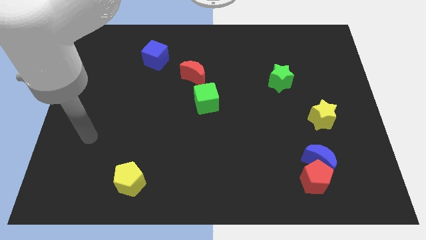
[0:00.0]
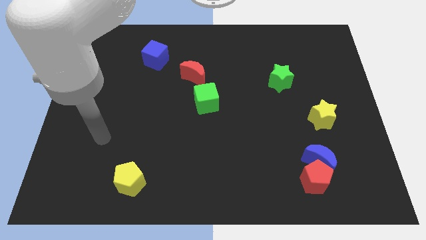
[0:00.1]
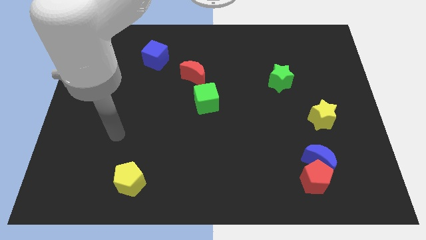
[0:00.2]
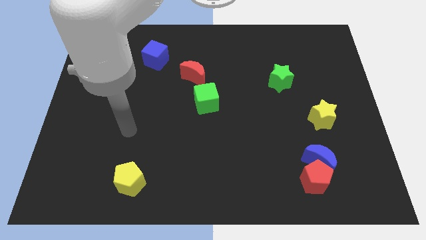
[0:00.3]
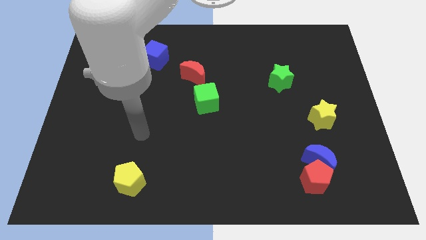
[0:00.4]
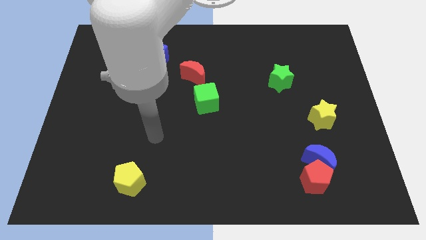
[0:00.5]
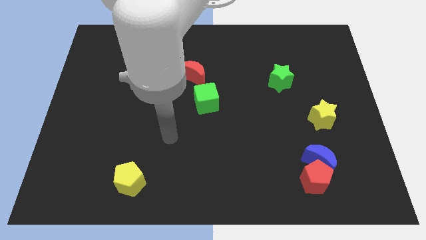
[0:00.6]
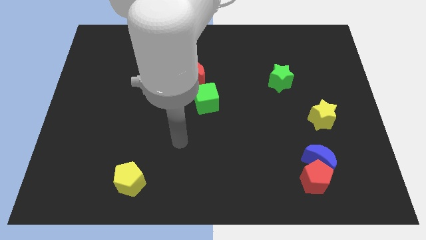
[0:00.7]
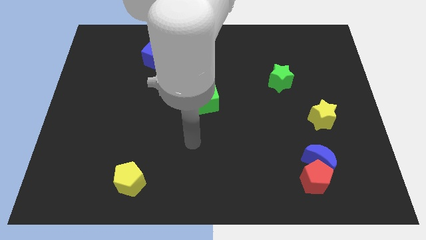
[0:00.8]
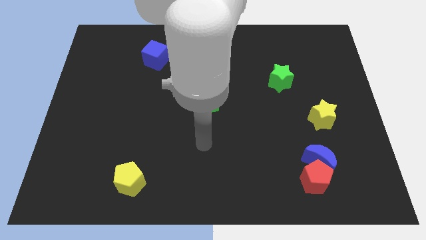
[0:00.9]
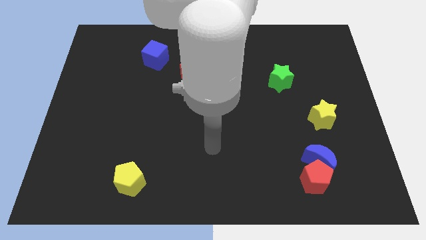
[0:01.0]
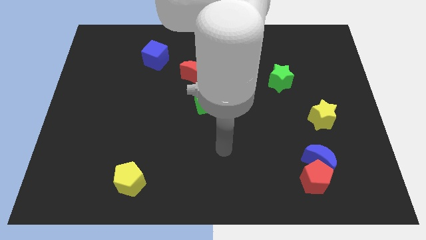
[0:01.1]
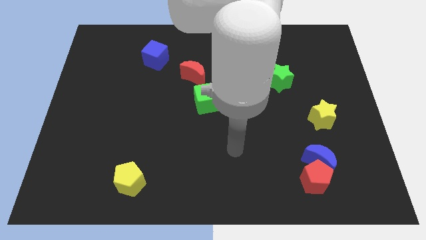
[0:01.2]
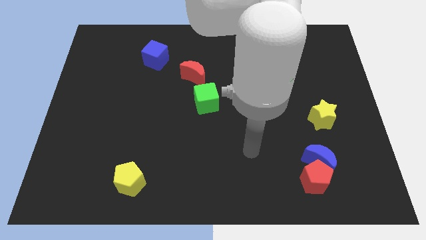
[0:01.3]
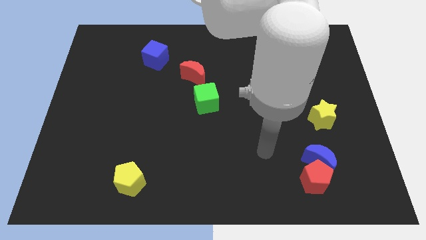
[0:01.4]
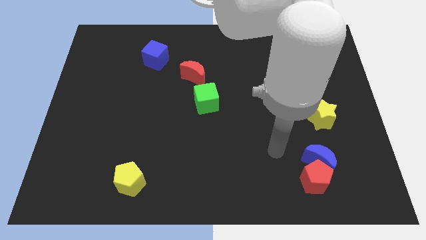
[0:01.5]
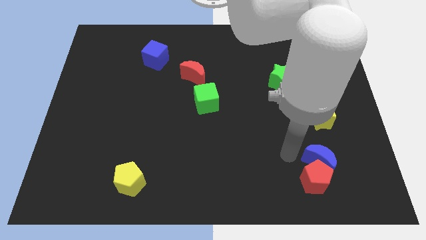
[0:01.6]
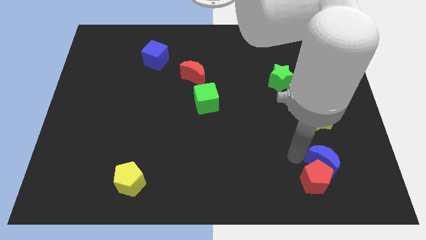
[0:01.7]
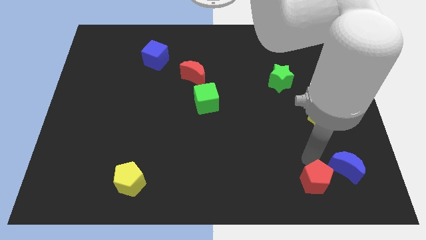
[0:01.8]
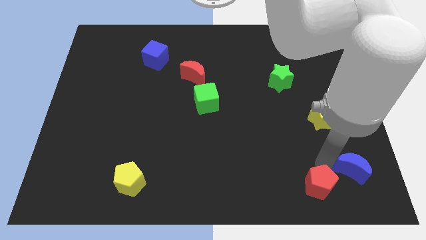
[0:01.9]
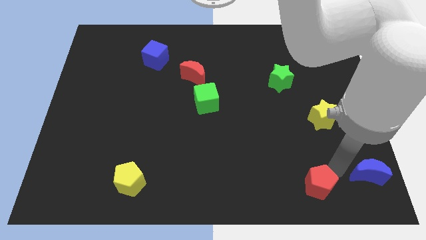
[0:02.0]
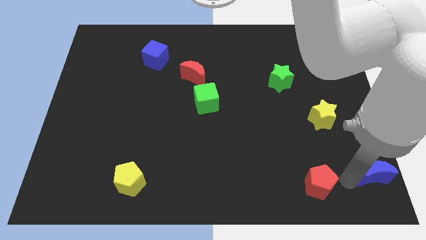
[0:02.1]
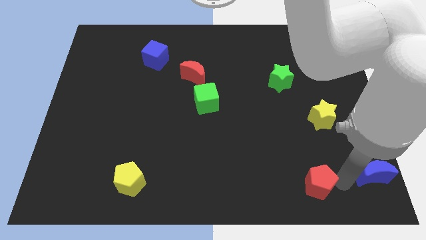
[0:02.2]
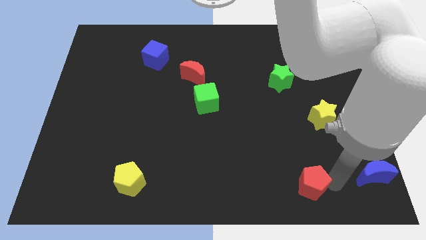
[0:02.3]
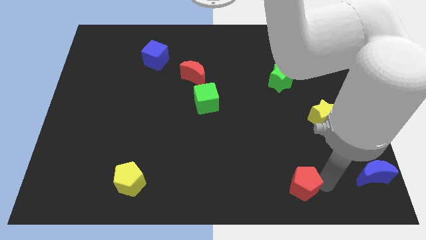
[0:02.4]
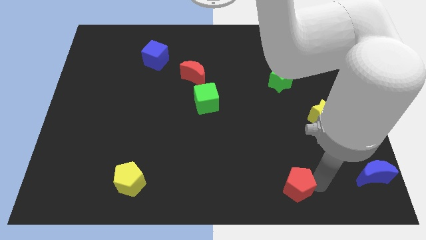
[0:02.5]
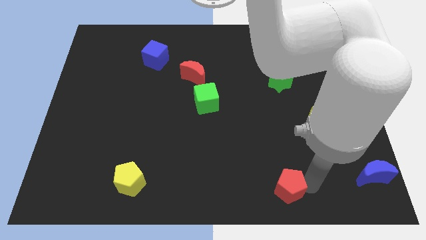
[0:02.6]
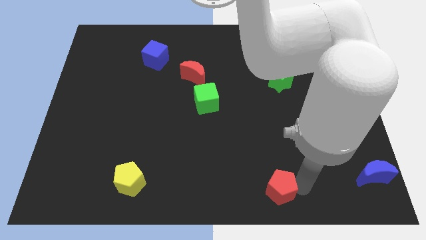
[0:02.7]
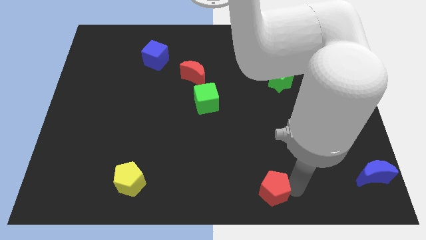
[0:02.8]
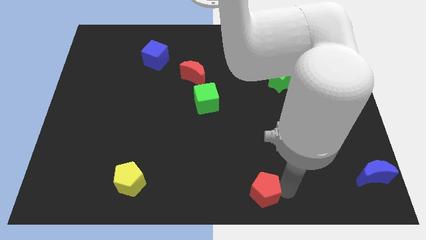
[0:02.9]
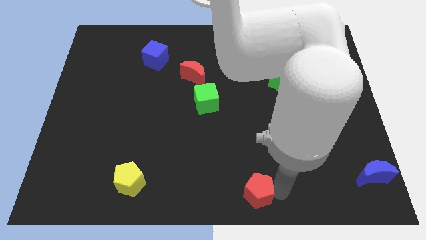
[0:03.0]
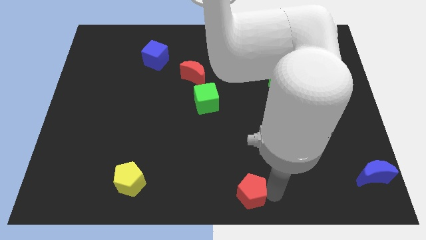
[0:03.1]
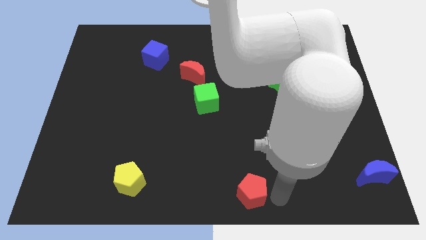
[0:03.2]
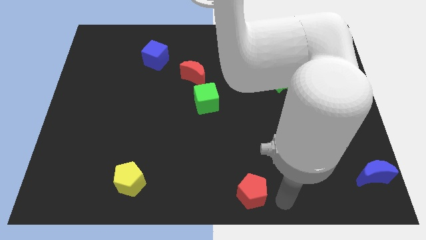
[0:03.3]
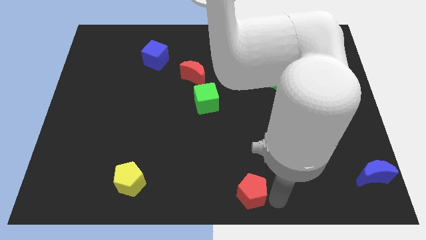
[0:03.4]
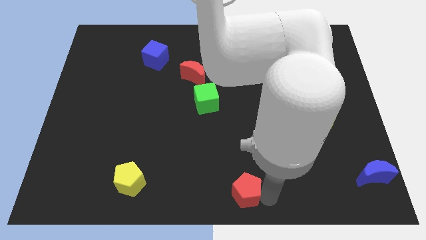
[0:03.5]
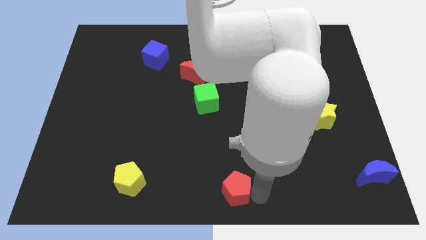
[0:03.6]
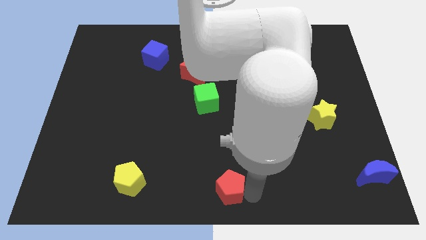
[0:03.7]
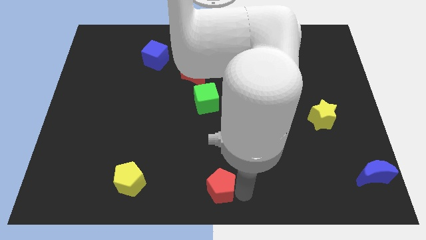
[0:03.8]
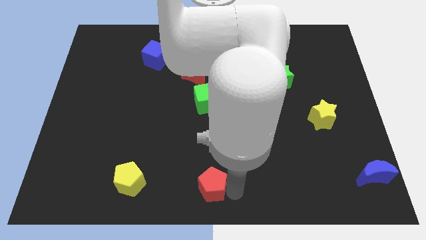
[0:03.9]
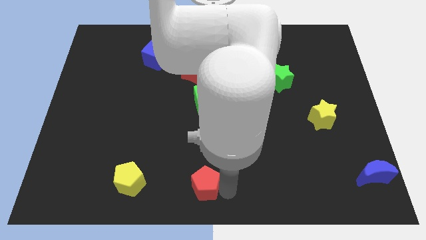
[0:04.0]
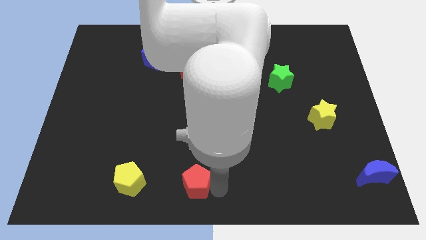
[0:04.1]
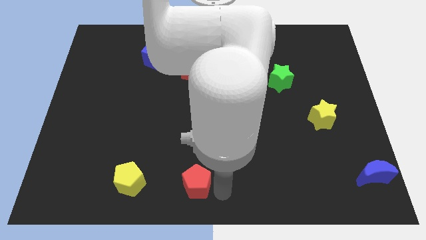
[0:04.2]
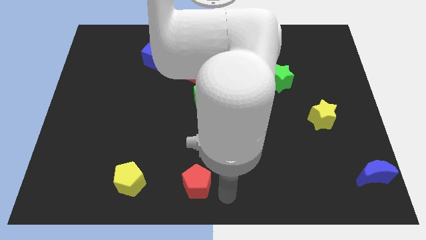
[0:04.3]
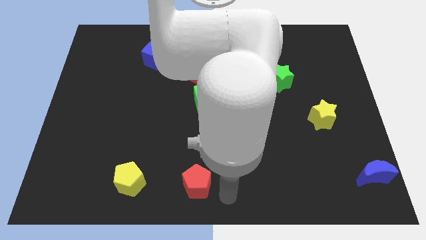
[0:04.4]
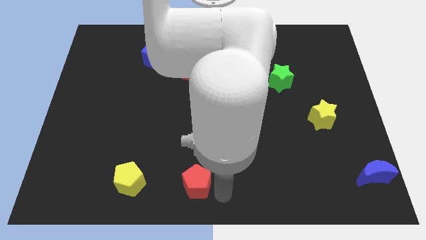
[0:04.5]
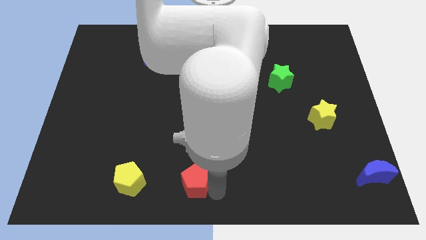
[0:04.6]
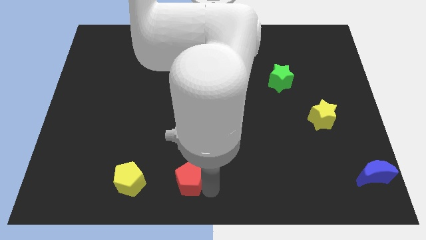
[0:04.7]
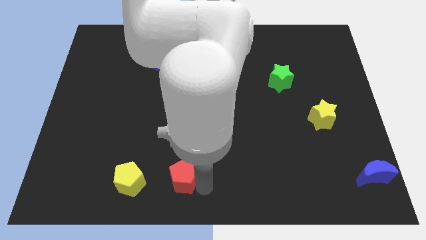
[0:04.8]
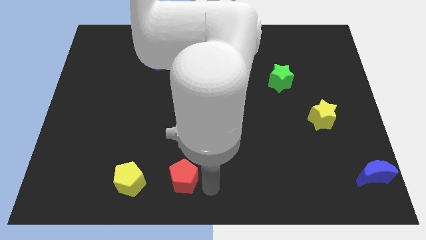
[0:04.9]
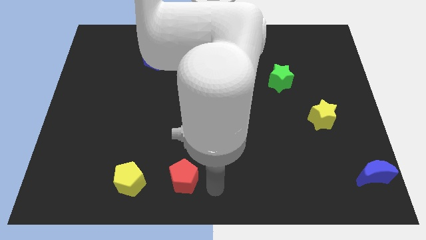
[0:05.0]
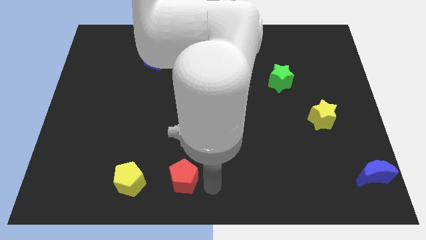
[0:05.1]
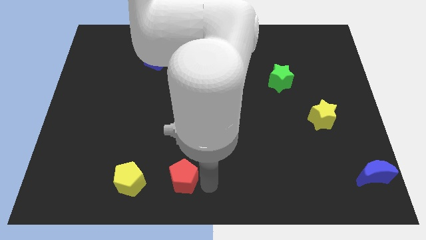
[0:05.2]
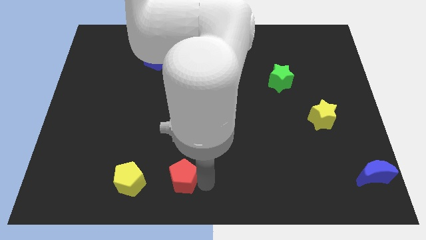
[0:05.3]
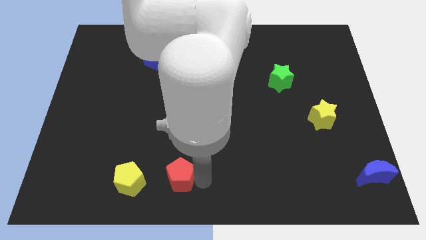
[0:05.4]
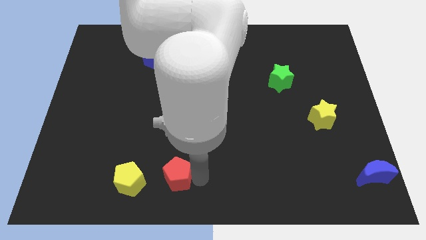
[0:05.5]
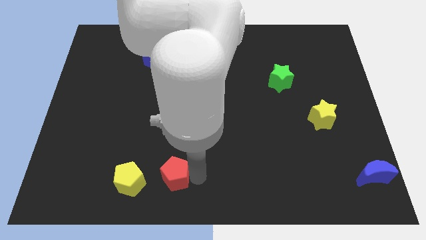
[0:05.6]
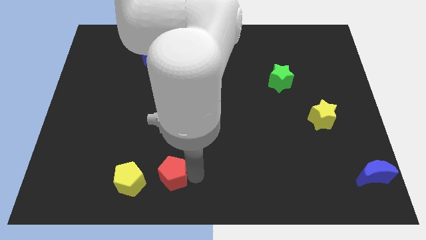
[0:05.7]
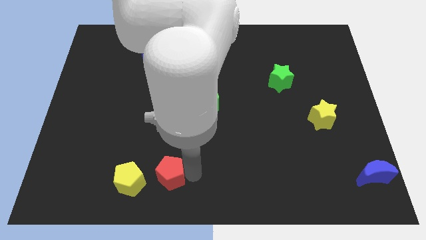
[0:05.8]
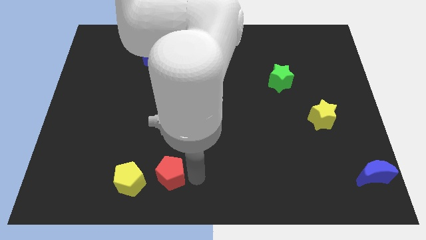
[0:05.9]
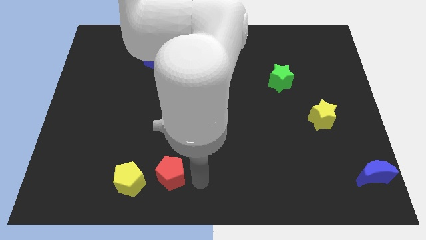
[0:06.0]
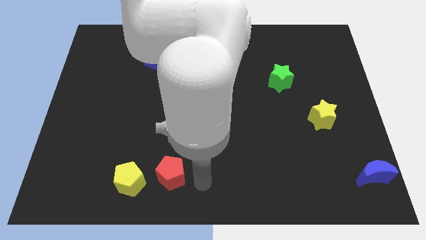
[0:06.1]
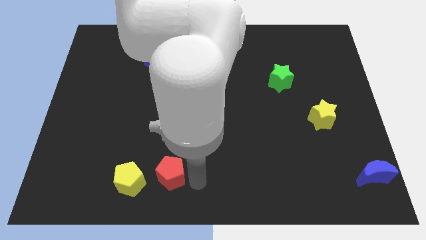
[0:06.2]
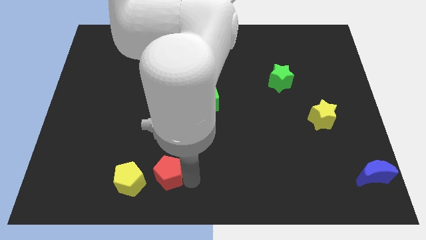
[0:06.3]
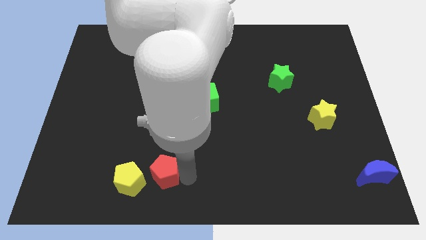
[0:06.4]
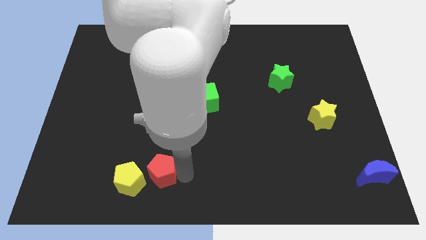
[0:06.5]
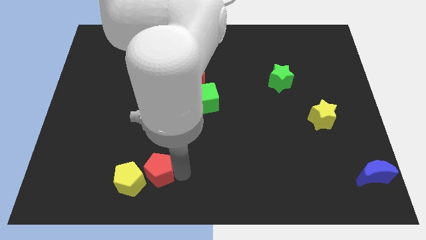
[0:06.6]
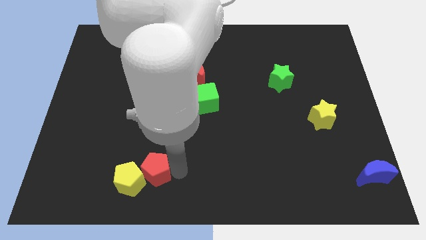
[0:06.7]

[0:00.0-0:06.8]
slide the red pentagon close to the yellow pentagon
